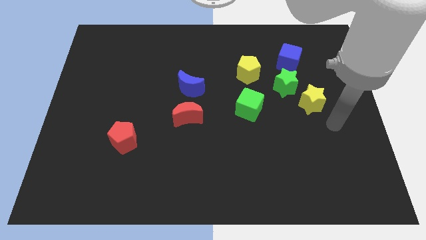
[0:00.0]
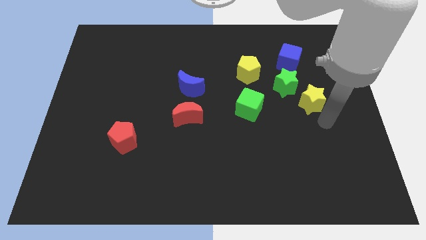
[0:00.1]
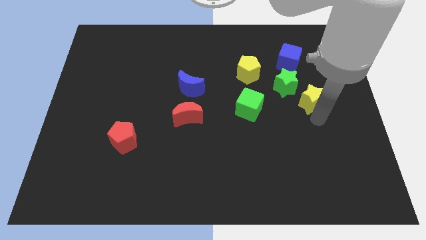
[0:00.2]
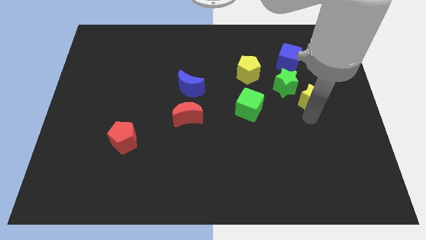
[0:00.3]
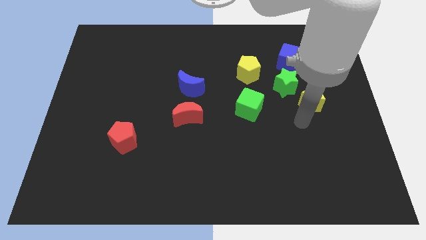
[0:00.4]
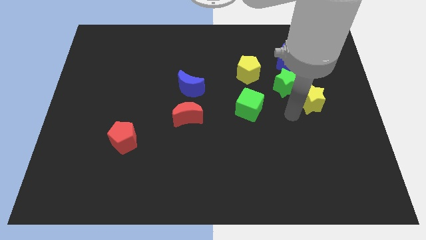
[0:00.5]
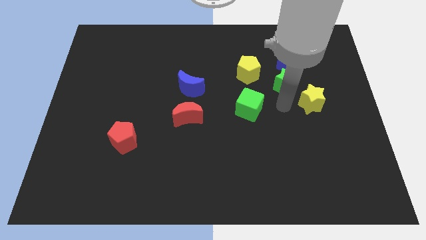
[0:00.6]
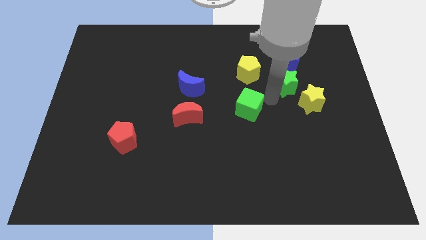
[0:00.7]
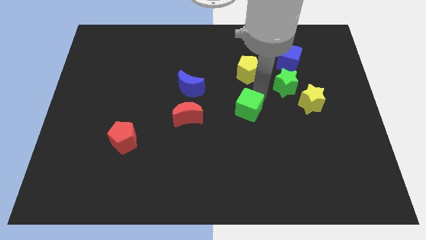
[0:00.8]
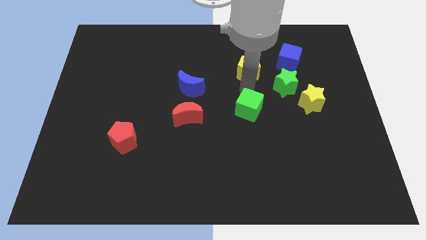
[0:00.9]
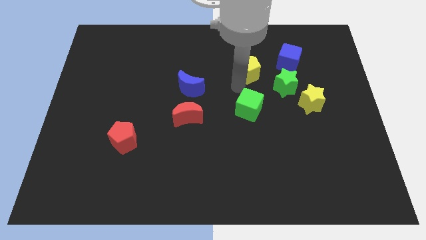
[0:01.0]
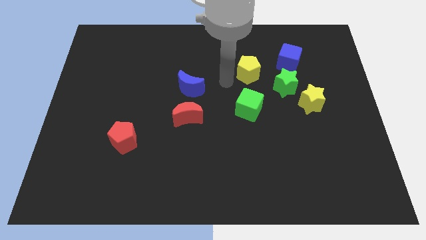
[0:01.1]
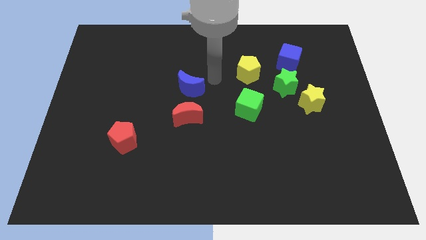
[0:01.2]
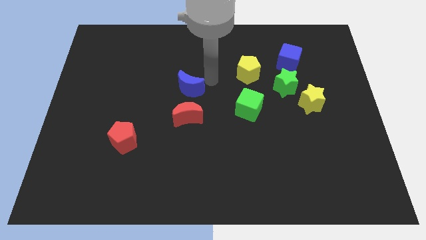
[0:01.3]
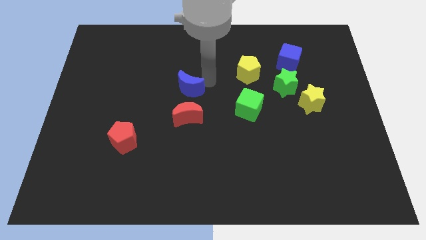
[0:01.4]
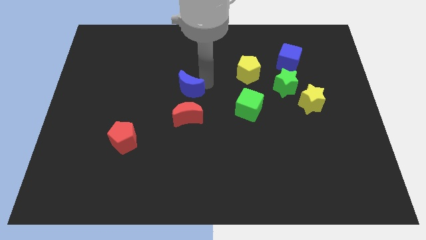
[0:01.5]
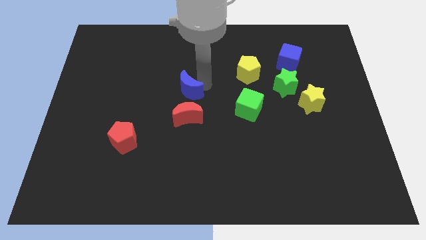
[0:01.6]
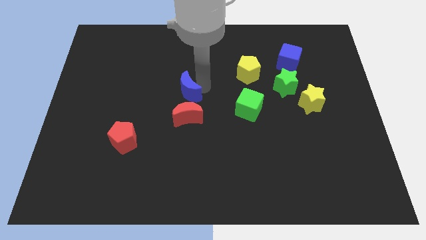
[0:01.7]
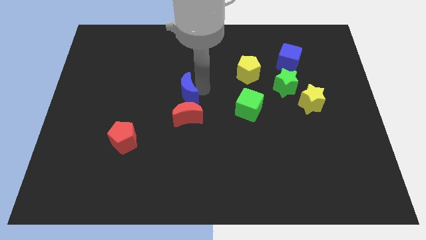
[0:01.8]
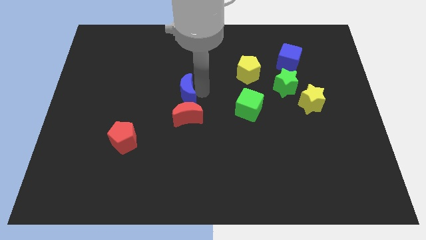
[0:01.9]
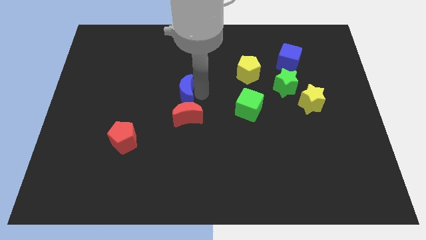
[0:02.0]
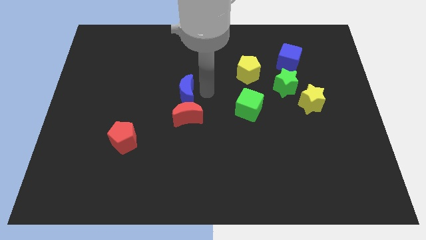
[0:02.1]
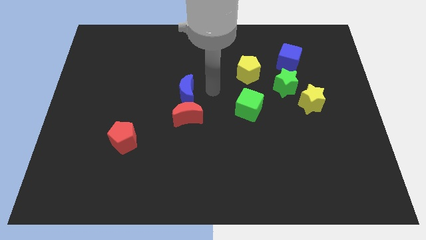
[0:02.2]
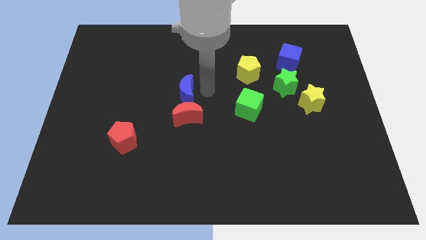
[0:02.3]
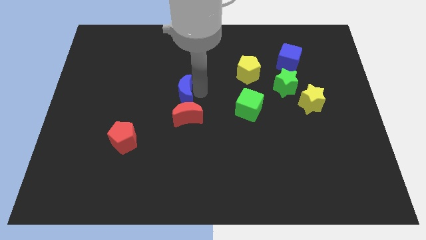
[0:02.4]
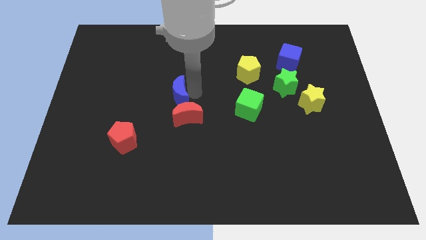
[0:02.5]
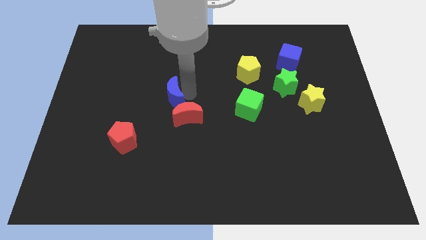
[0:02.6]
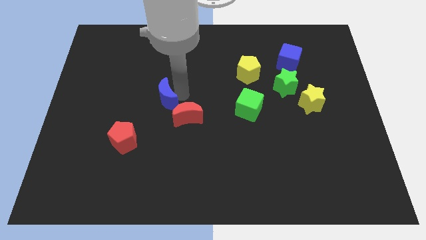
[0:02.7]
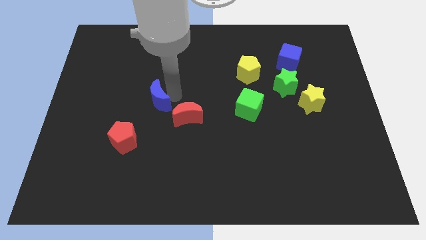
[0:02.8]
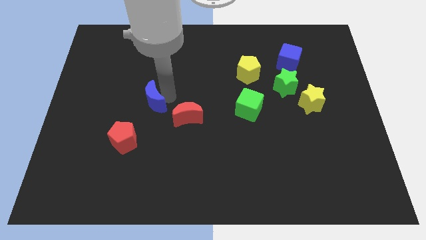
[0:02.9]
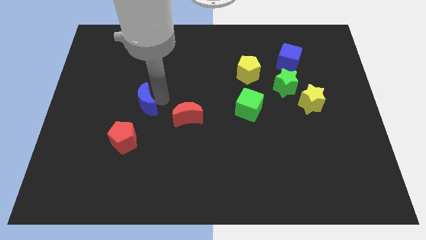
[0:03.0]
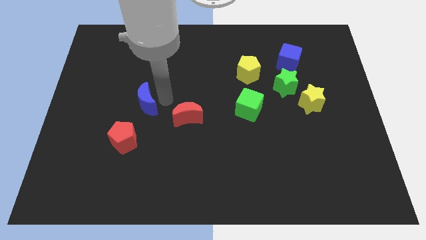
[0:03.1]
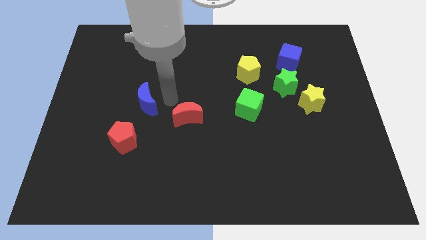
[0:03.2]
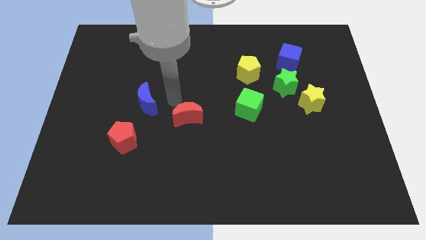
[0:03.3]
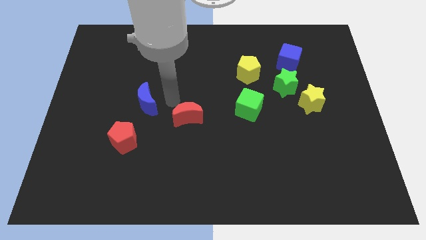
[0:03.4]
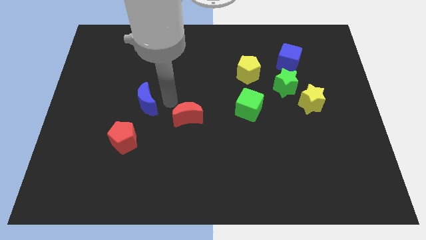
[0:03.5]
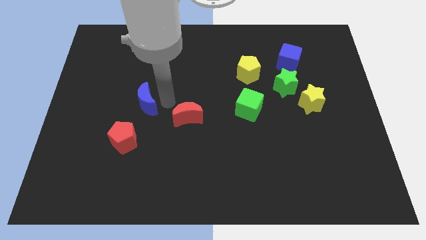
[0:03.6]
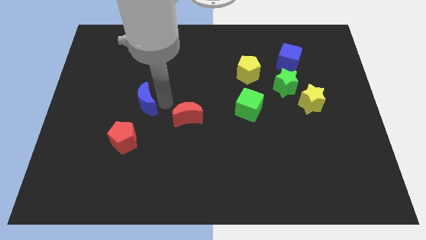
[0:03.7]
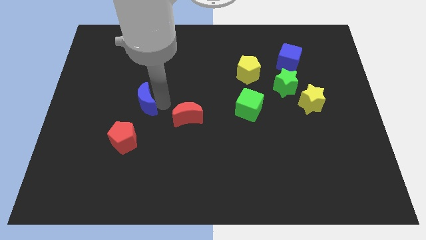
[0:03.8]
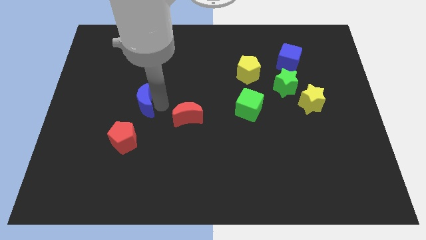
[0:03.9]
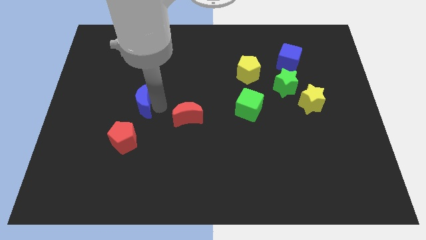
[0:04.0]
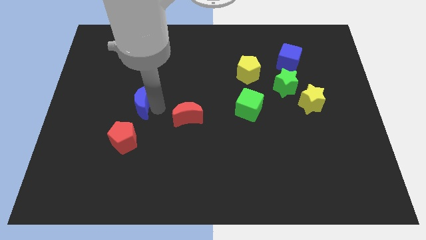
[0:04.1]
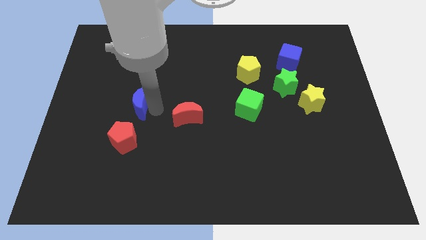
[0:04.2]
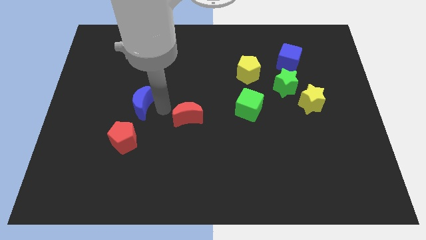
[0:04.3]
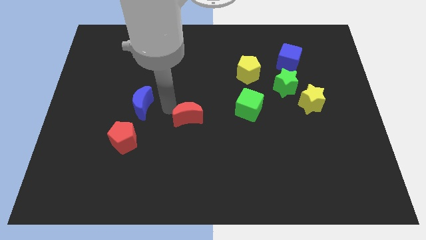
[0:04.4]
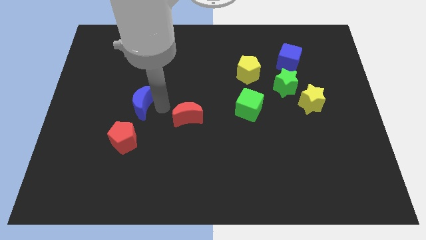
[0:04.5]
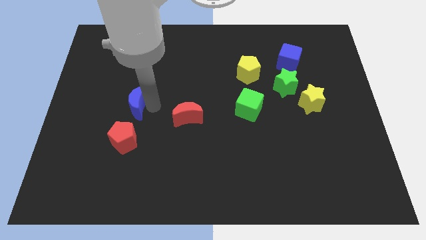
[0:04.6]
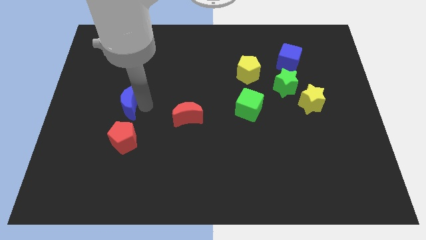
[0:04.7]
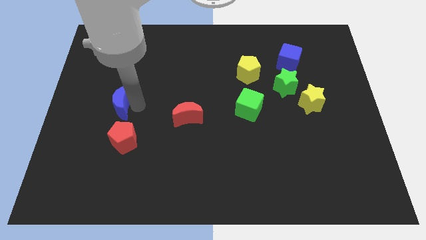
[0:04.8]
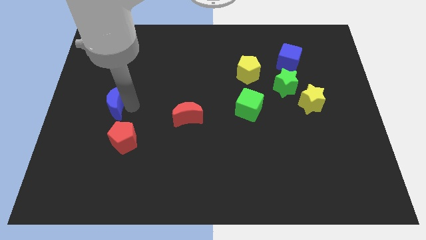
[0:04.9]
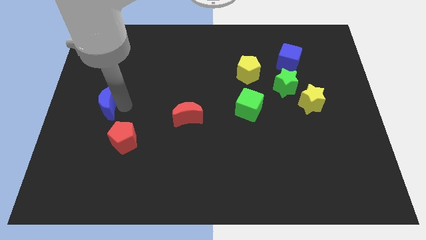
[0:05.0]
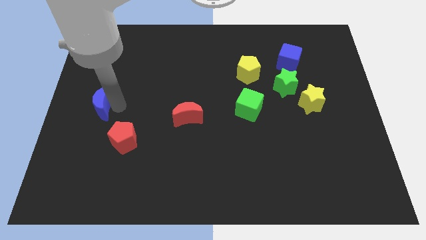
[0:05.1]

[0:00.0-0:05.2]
slide the blue moon to the center left

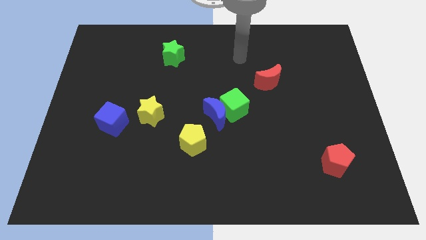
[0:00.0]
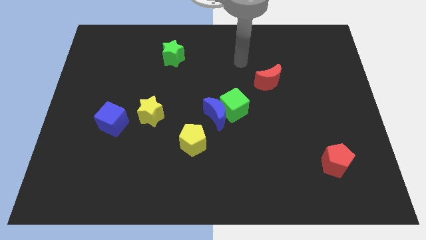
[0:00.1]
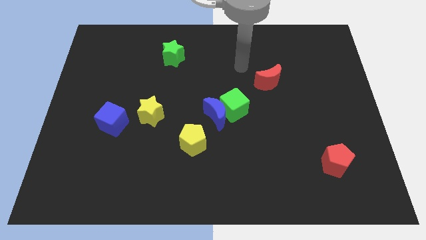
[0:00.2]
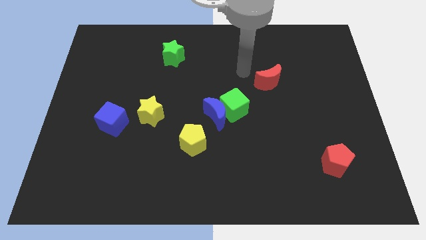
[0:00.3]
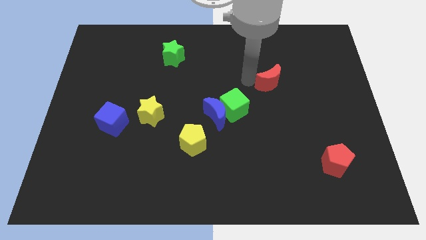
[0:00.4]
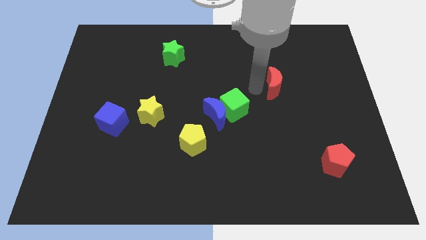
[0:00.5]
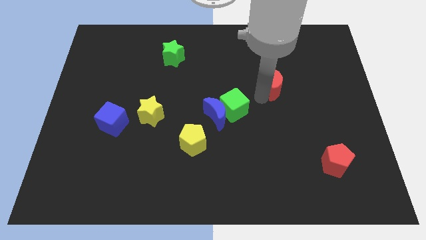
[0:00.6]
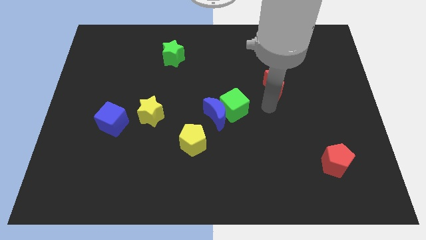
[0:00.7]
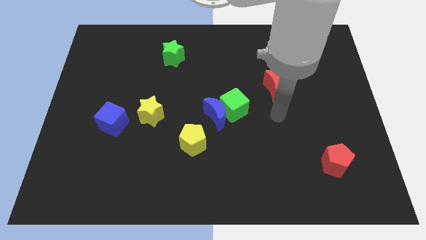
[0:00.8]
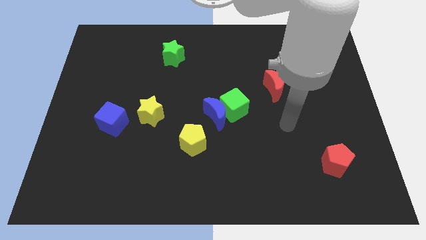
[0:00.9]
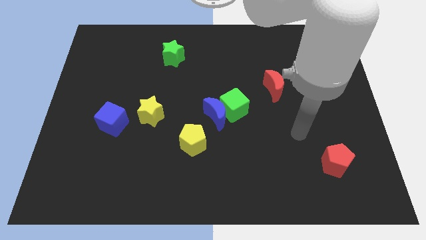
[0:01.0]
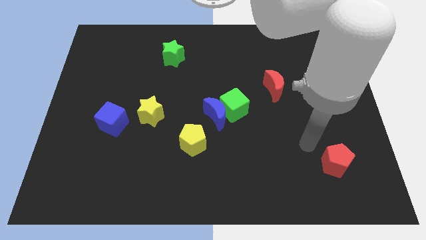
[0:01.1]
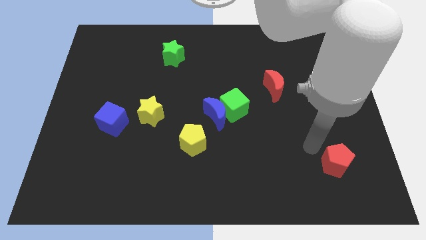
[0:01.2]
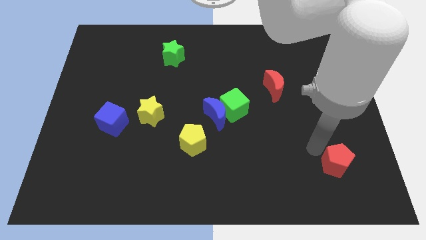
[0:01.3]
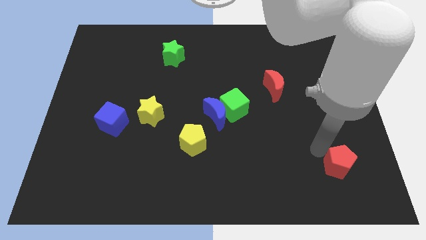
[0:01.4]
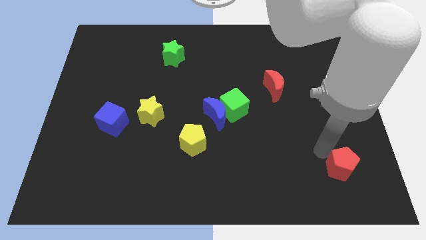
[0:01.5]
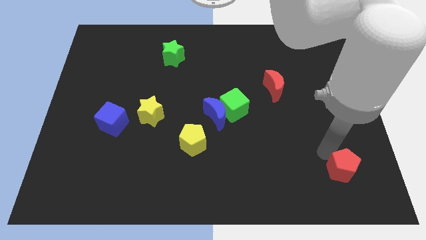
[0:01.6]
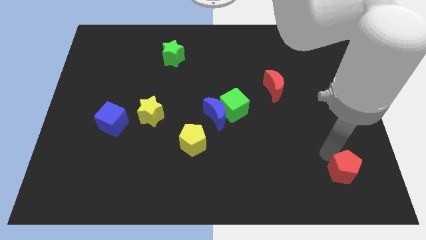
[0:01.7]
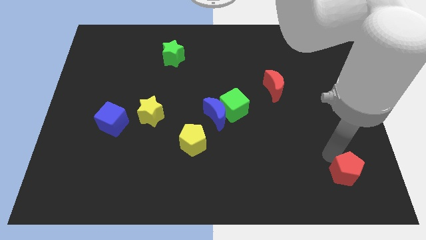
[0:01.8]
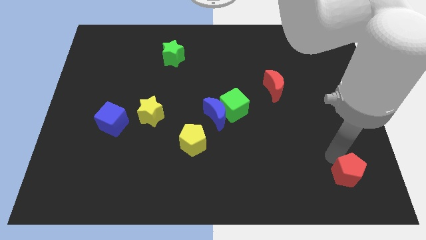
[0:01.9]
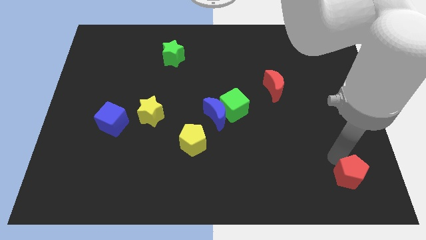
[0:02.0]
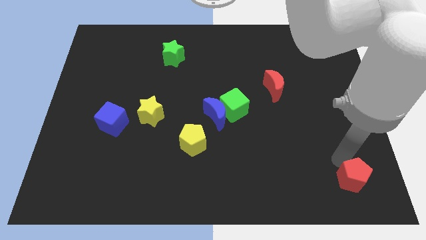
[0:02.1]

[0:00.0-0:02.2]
move the red pentagon to the lower right corner
